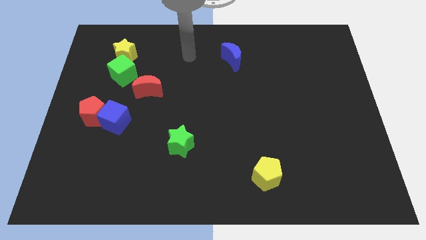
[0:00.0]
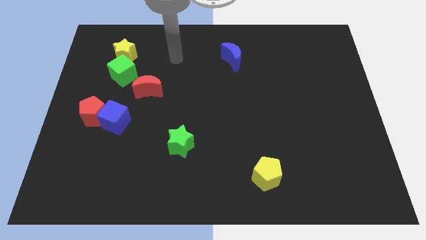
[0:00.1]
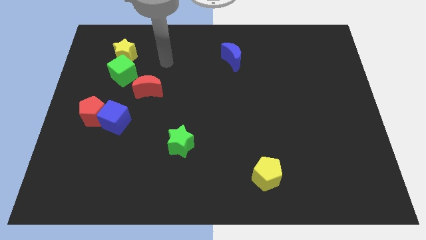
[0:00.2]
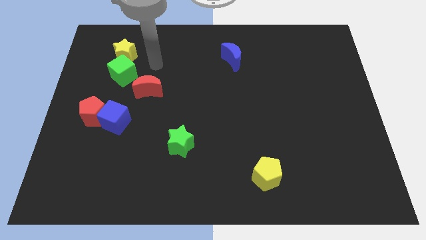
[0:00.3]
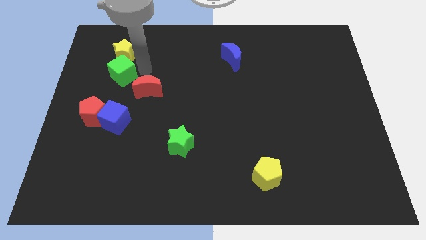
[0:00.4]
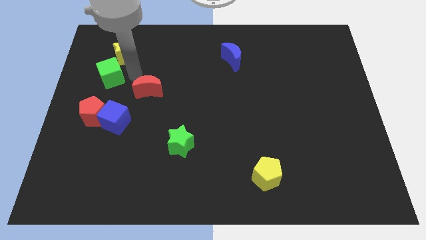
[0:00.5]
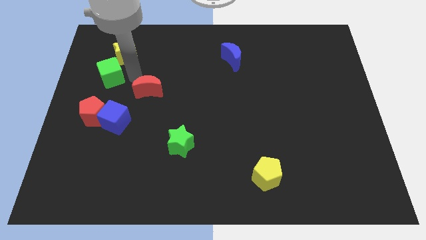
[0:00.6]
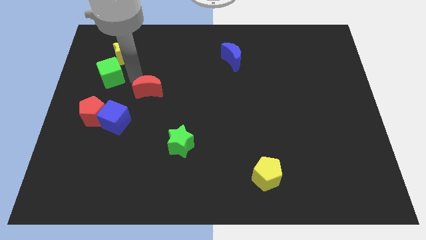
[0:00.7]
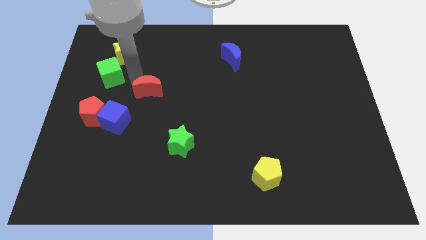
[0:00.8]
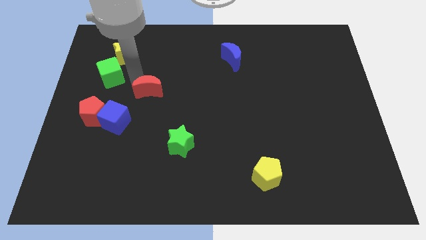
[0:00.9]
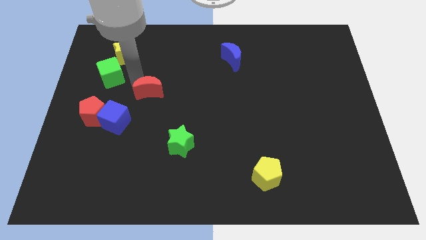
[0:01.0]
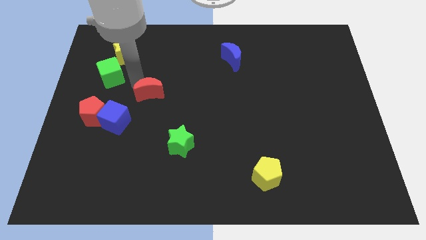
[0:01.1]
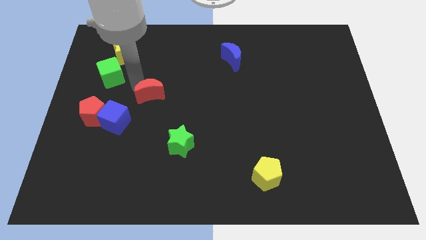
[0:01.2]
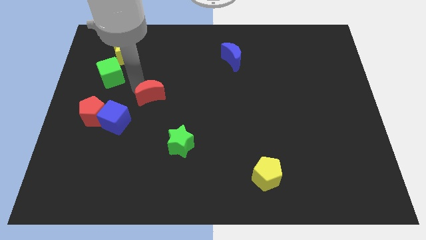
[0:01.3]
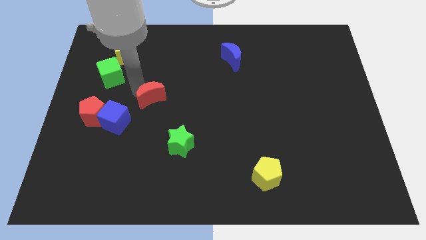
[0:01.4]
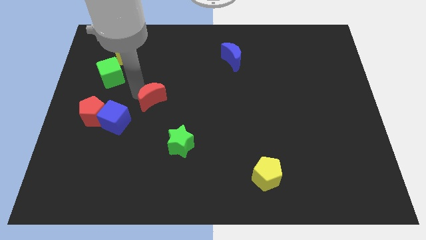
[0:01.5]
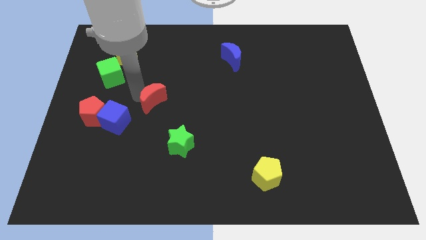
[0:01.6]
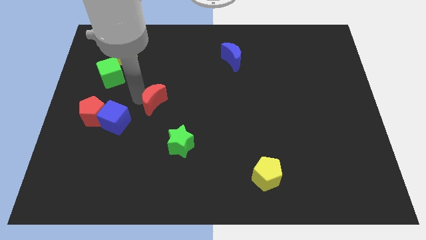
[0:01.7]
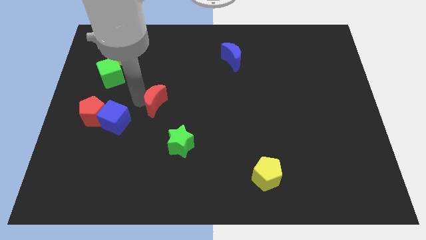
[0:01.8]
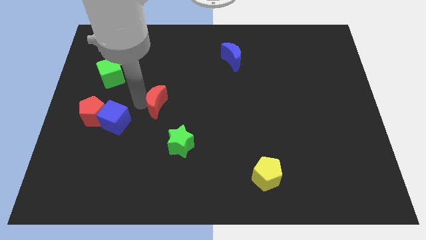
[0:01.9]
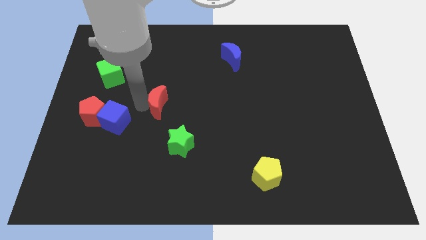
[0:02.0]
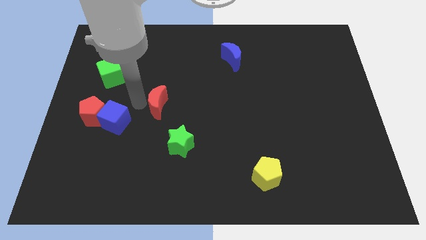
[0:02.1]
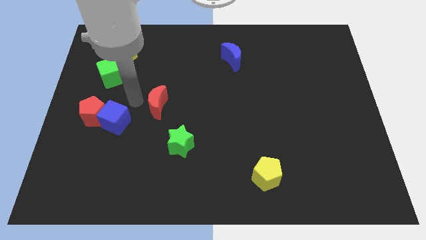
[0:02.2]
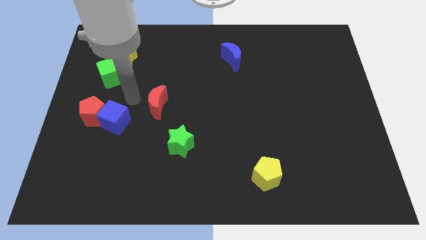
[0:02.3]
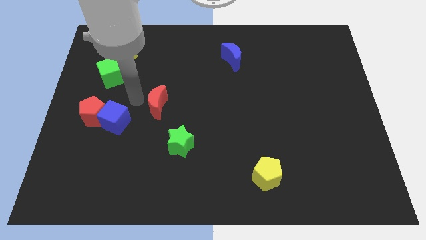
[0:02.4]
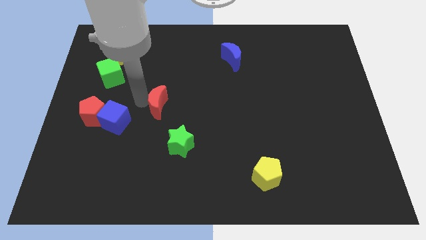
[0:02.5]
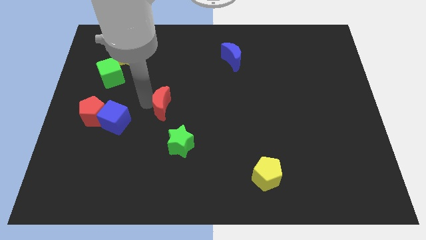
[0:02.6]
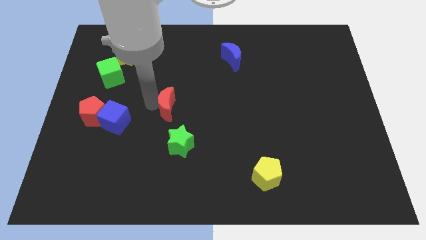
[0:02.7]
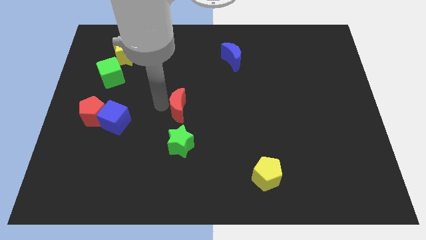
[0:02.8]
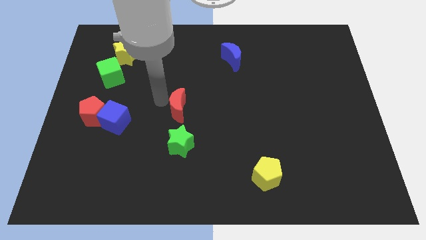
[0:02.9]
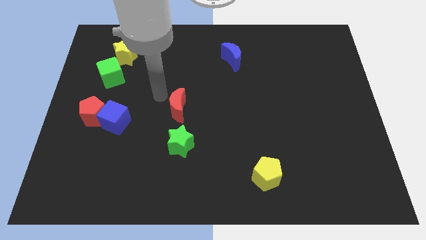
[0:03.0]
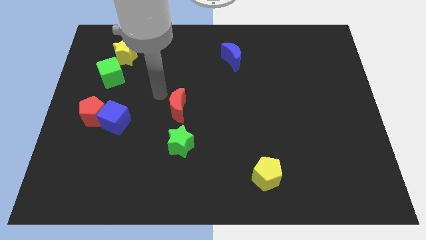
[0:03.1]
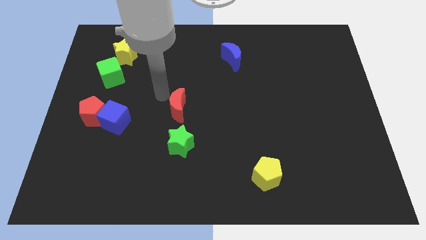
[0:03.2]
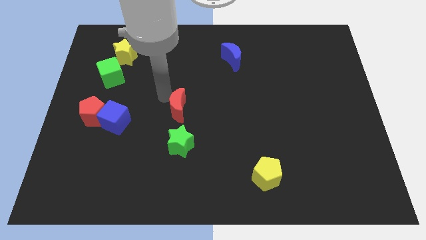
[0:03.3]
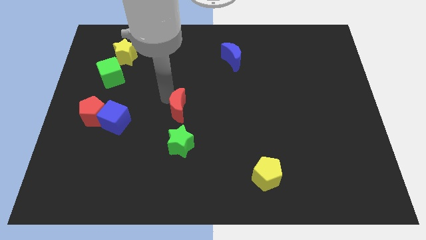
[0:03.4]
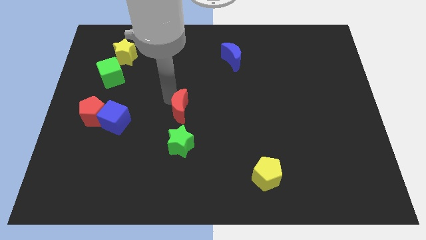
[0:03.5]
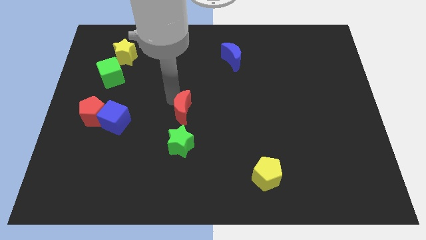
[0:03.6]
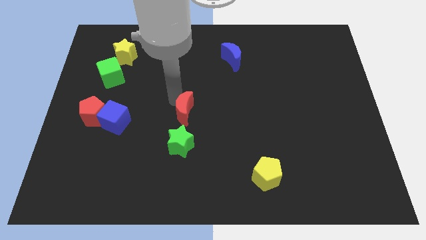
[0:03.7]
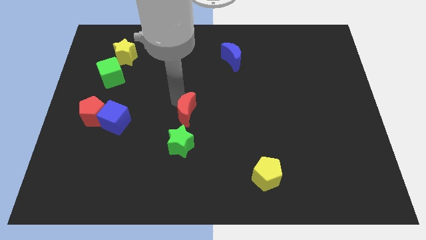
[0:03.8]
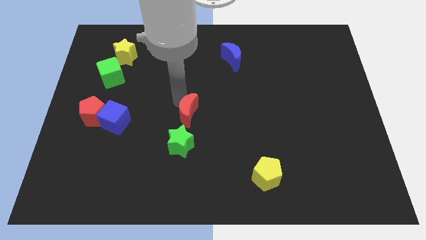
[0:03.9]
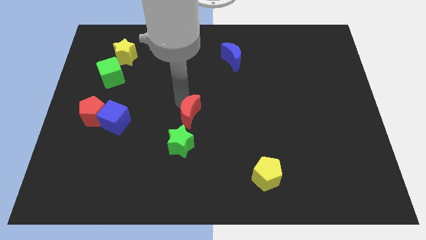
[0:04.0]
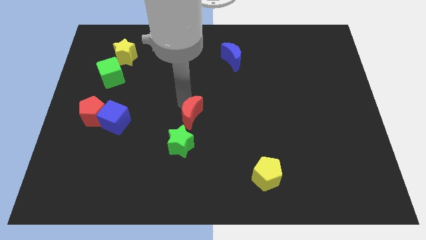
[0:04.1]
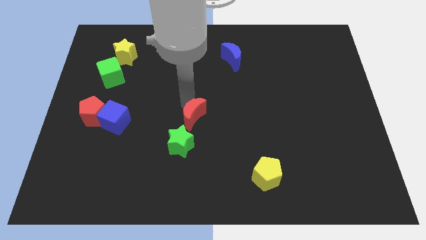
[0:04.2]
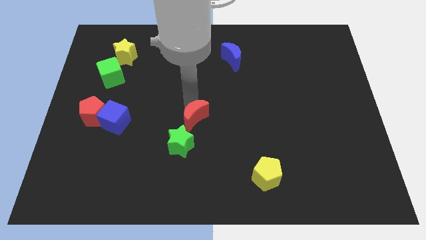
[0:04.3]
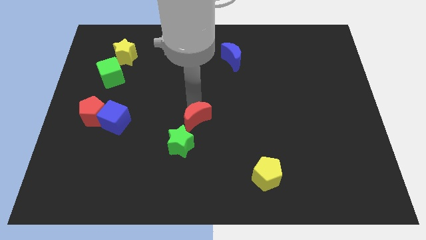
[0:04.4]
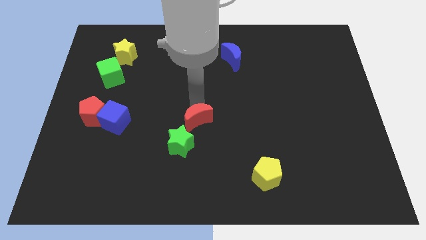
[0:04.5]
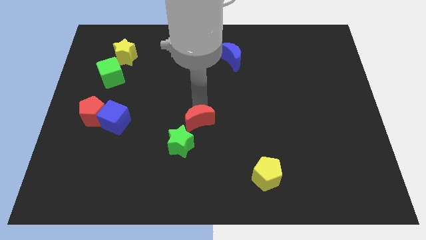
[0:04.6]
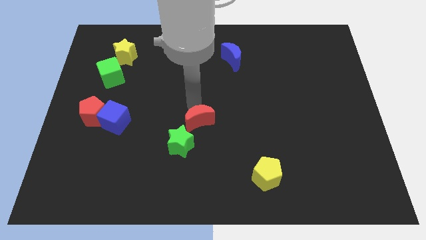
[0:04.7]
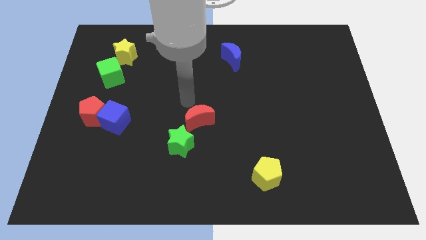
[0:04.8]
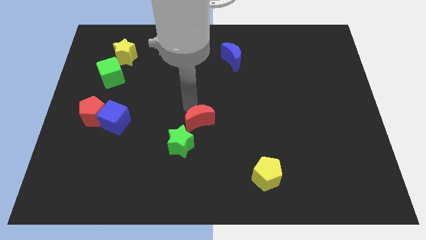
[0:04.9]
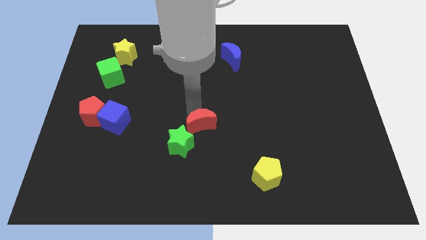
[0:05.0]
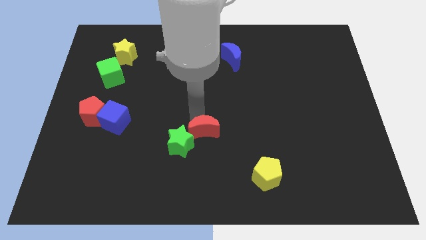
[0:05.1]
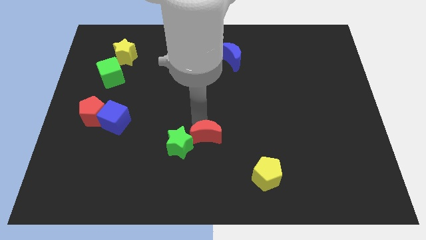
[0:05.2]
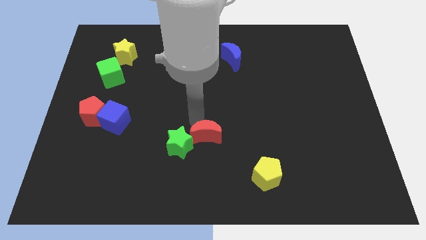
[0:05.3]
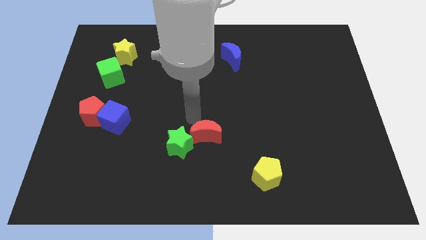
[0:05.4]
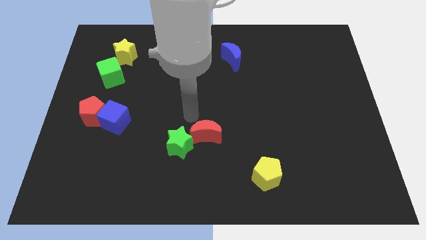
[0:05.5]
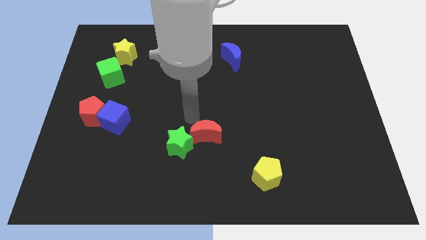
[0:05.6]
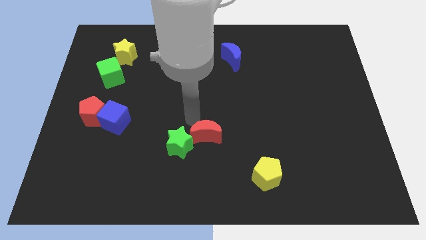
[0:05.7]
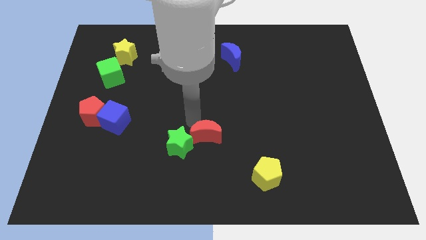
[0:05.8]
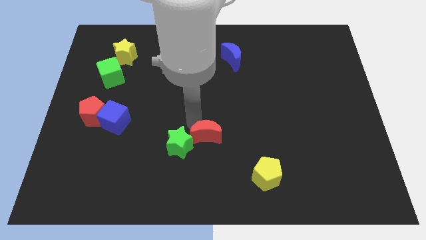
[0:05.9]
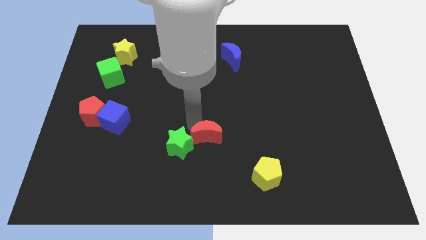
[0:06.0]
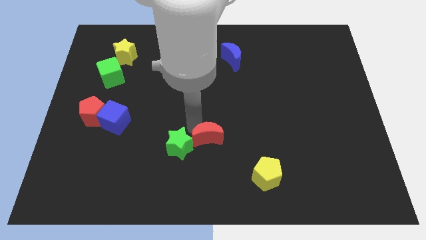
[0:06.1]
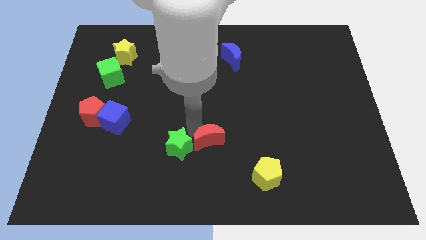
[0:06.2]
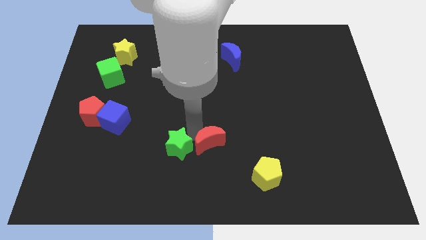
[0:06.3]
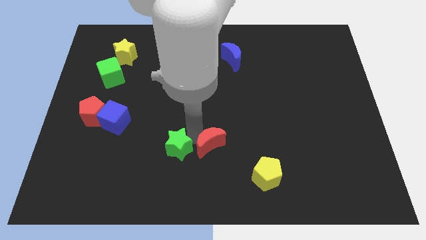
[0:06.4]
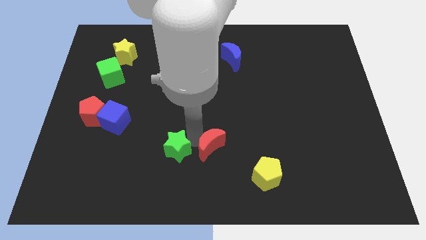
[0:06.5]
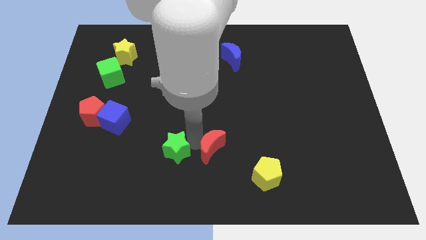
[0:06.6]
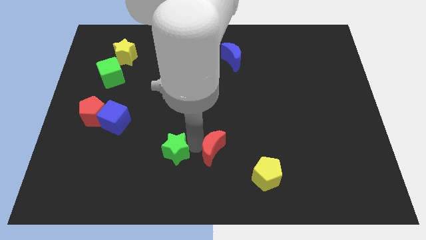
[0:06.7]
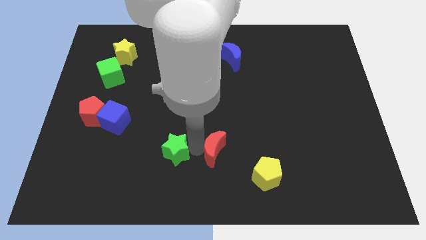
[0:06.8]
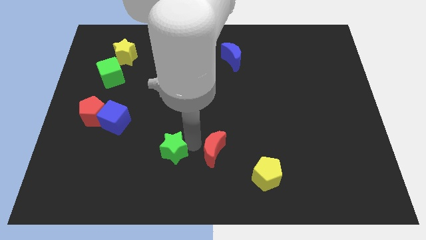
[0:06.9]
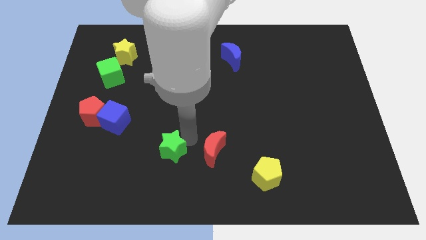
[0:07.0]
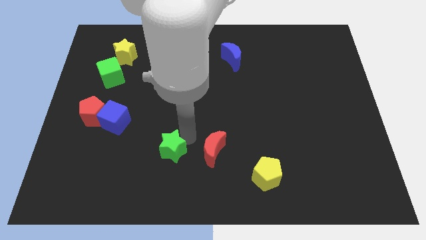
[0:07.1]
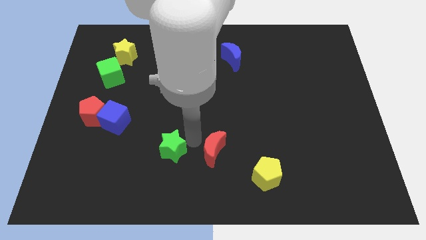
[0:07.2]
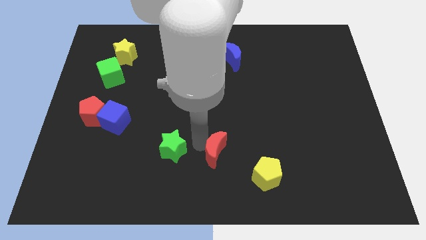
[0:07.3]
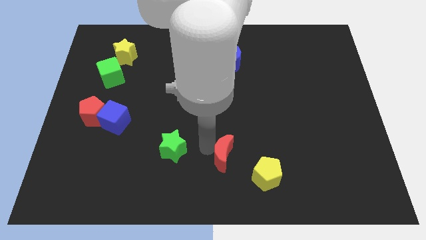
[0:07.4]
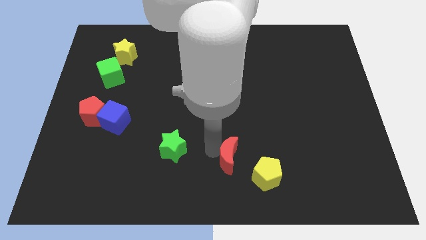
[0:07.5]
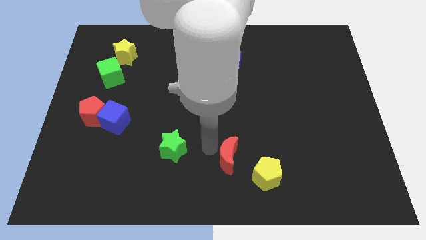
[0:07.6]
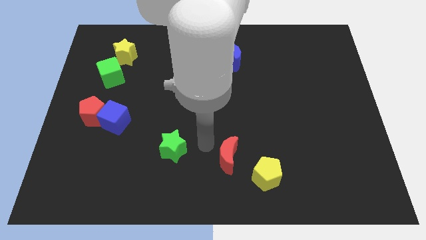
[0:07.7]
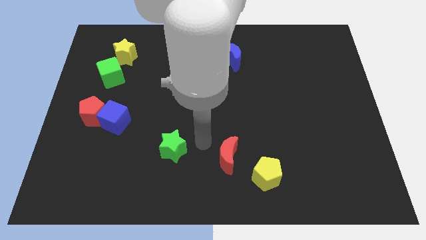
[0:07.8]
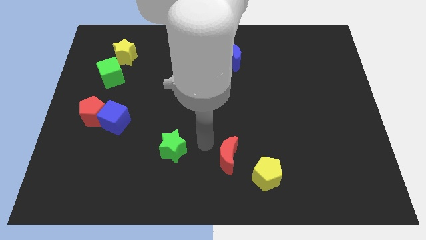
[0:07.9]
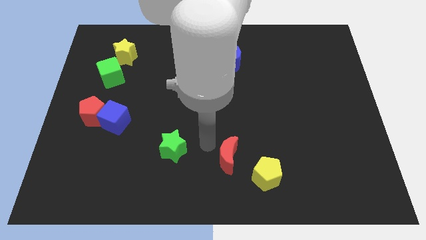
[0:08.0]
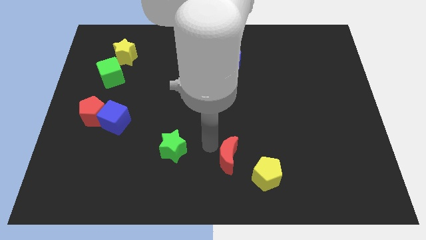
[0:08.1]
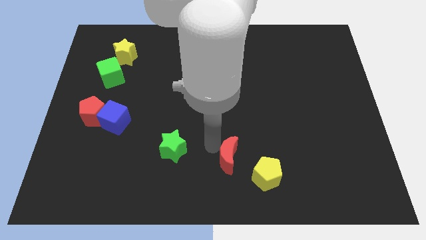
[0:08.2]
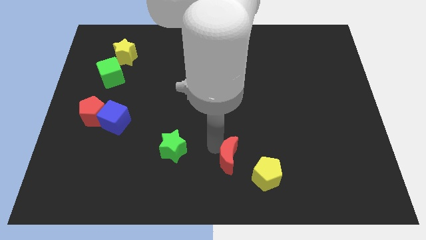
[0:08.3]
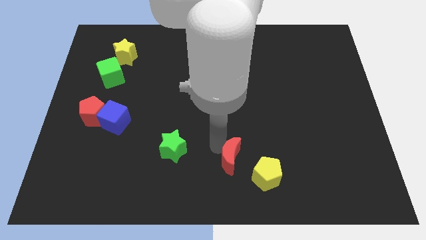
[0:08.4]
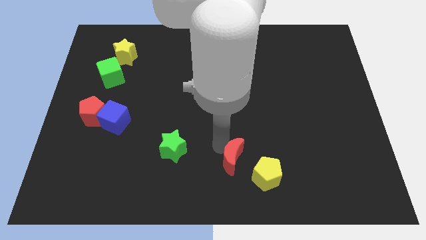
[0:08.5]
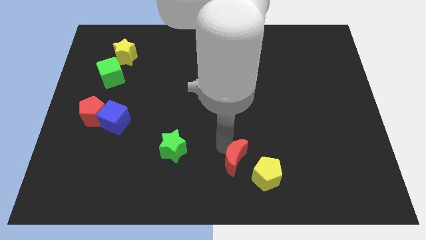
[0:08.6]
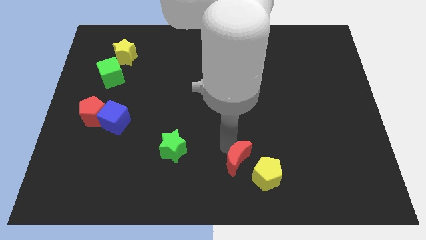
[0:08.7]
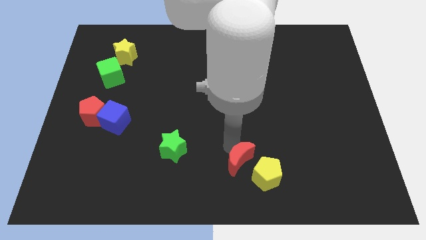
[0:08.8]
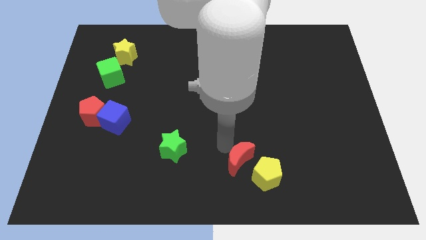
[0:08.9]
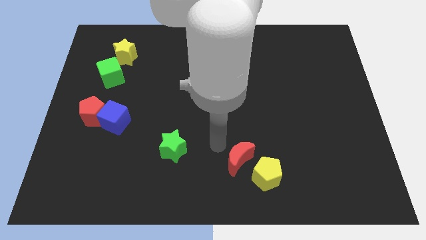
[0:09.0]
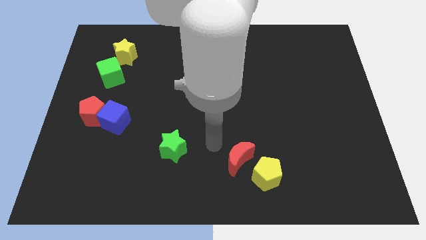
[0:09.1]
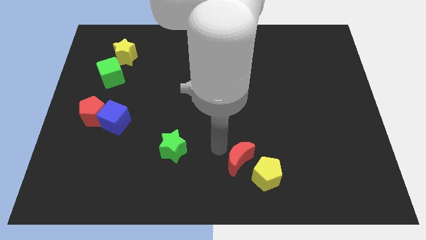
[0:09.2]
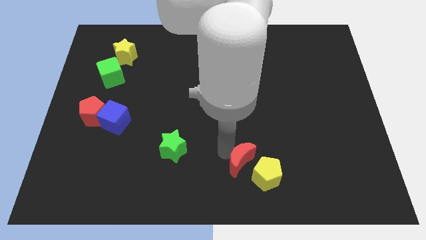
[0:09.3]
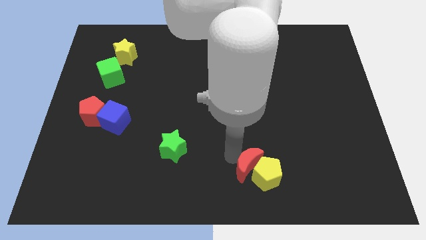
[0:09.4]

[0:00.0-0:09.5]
slide the red moon to the yellow pentagon
